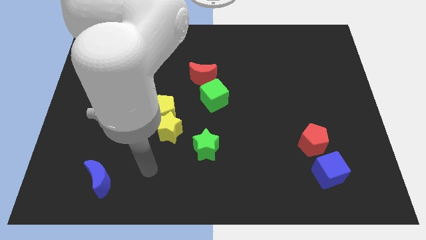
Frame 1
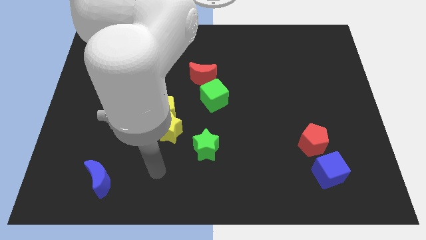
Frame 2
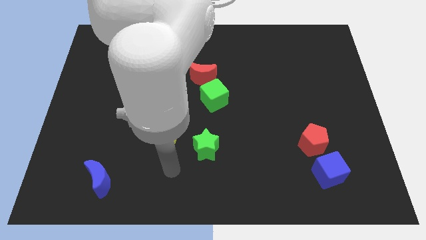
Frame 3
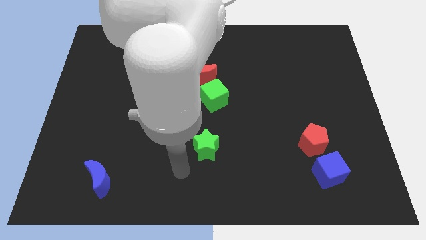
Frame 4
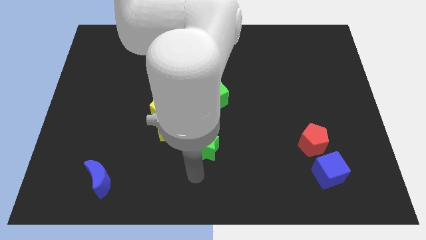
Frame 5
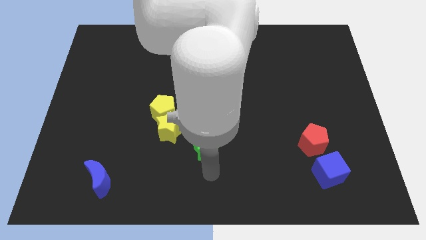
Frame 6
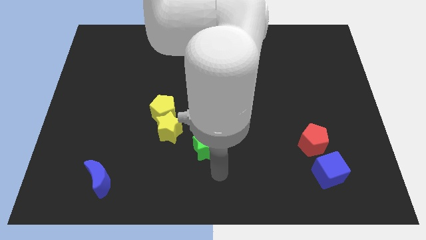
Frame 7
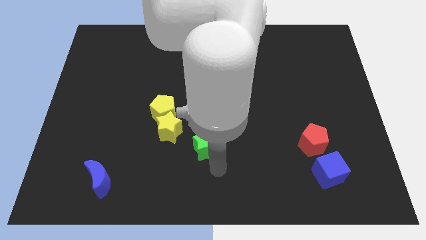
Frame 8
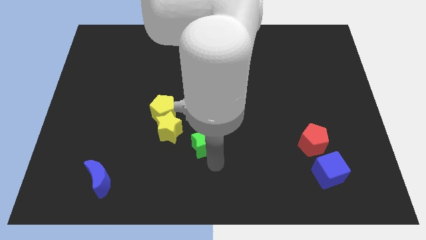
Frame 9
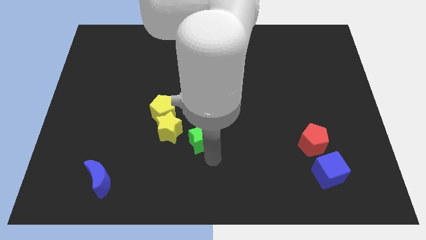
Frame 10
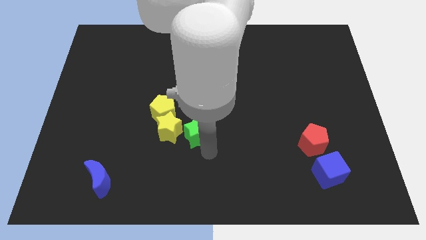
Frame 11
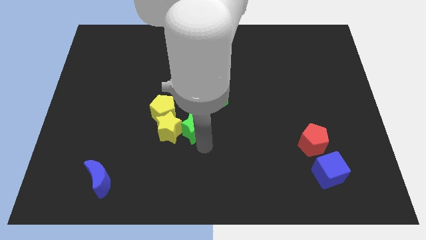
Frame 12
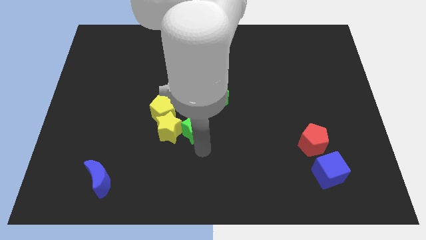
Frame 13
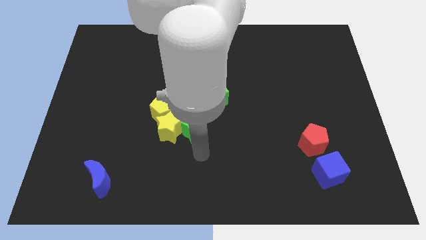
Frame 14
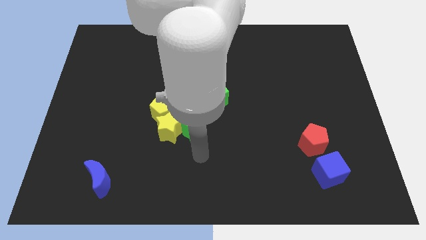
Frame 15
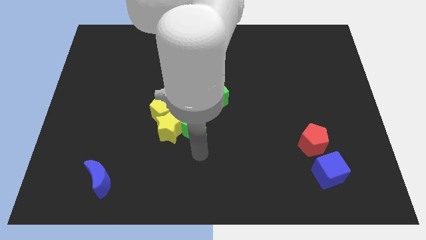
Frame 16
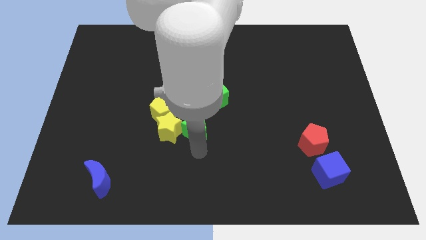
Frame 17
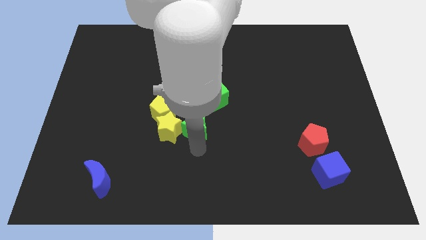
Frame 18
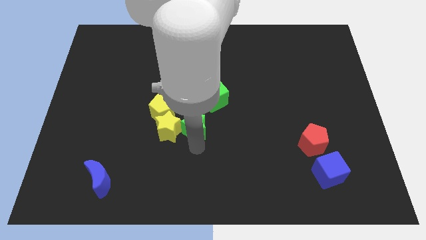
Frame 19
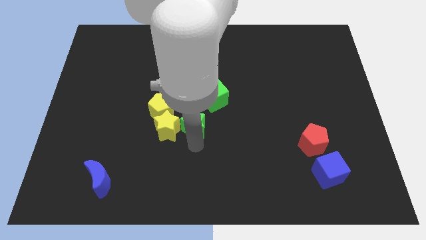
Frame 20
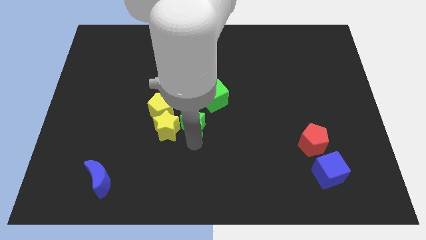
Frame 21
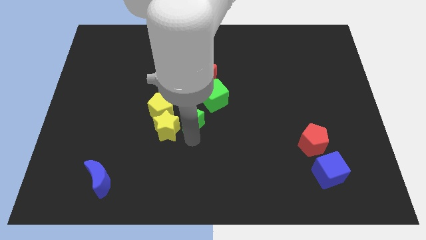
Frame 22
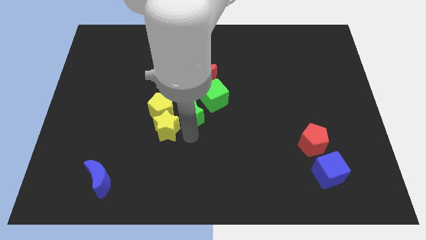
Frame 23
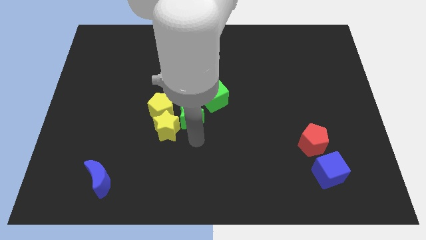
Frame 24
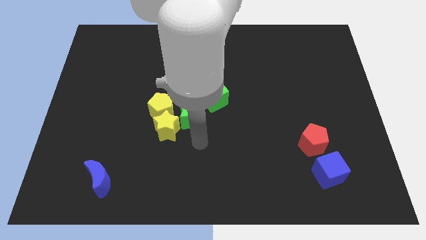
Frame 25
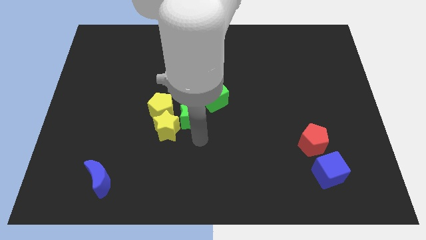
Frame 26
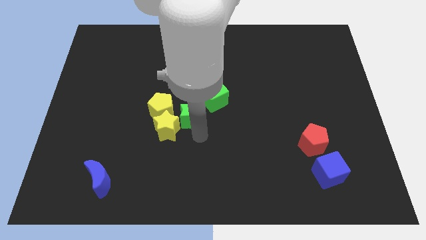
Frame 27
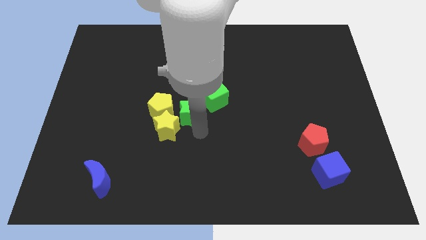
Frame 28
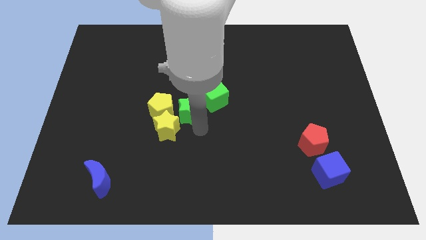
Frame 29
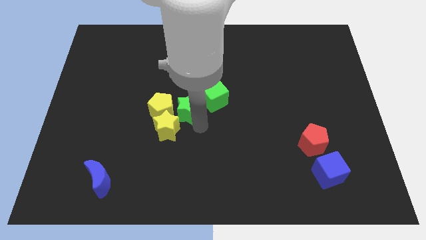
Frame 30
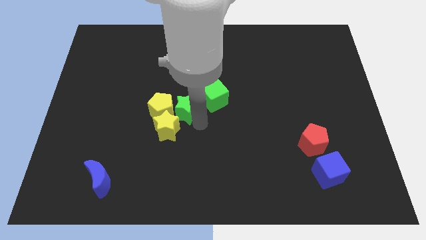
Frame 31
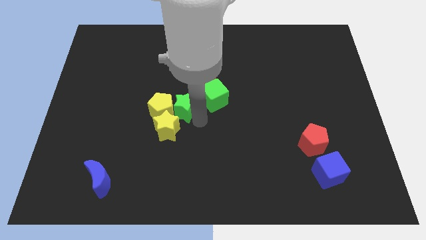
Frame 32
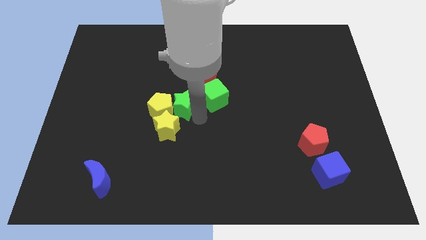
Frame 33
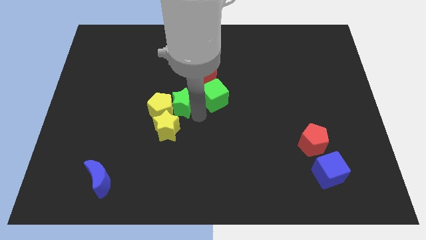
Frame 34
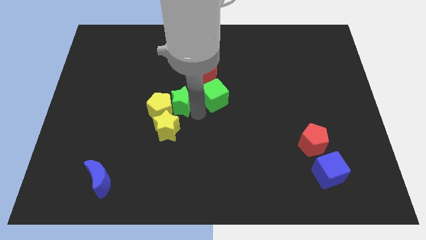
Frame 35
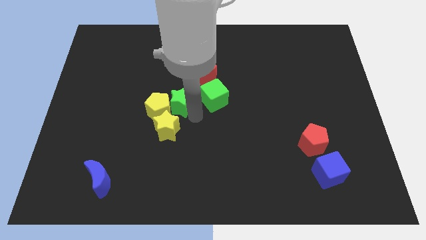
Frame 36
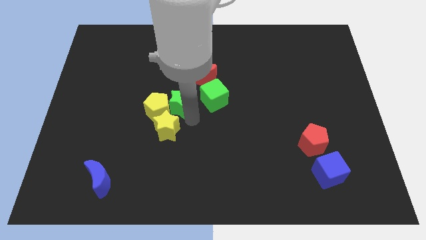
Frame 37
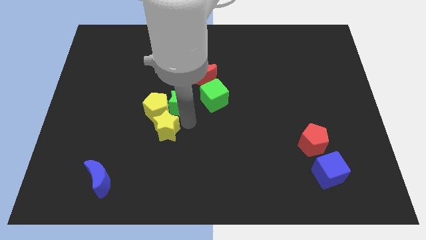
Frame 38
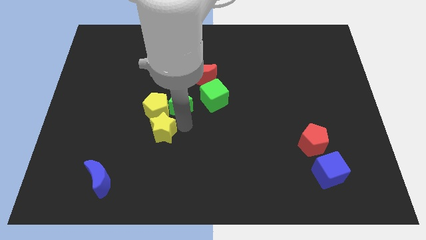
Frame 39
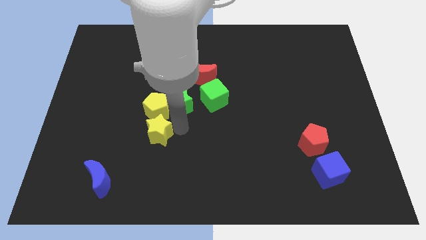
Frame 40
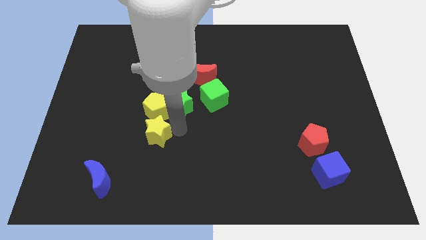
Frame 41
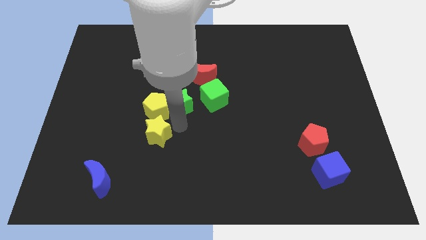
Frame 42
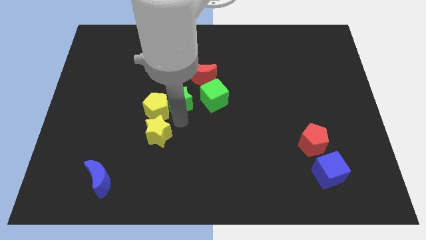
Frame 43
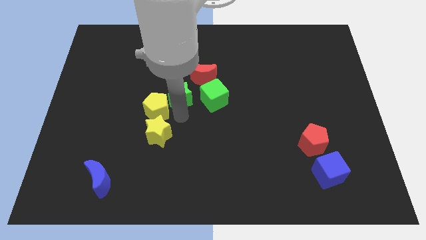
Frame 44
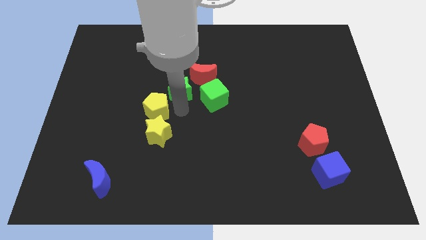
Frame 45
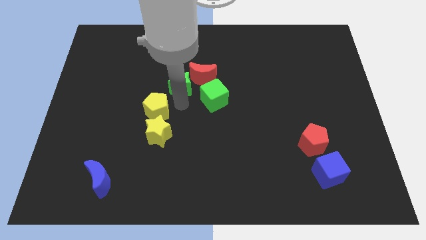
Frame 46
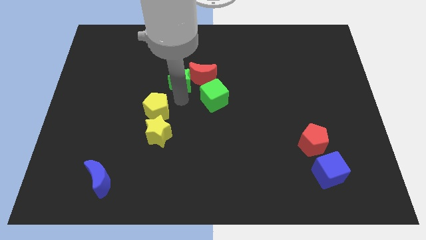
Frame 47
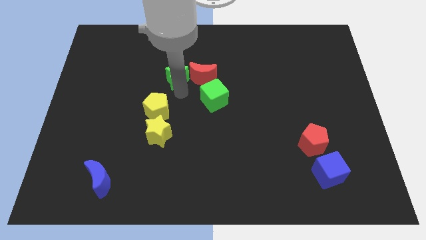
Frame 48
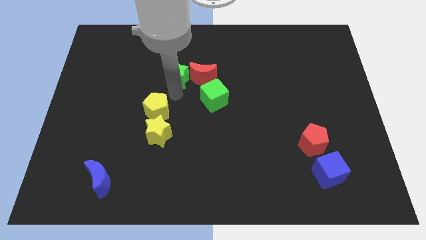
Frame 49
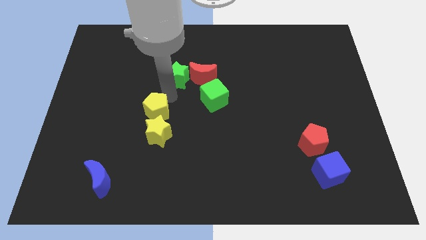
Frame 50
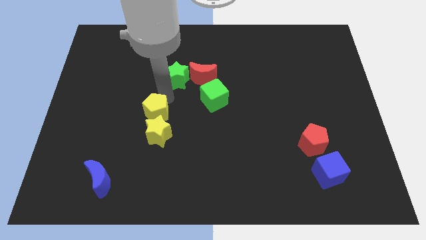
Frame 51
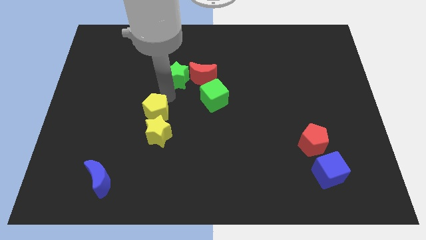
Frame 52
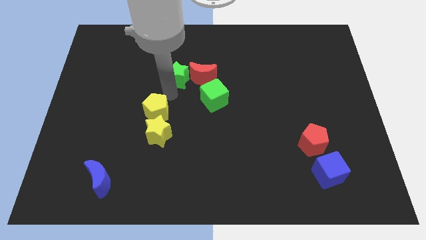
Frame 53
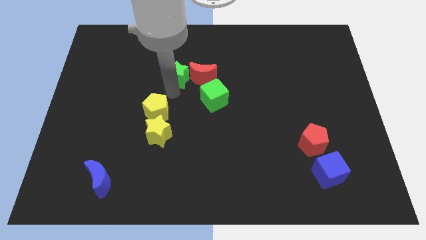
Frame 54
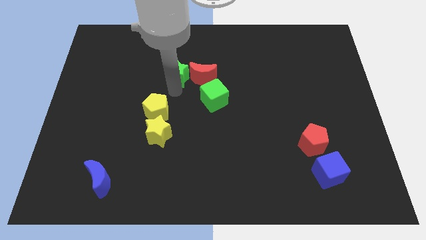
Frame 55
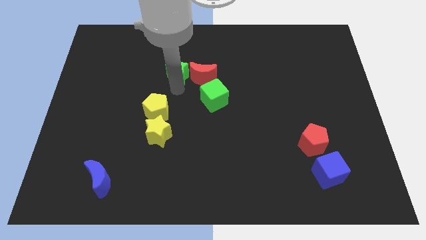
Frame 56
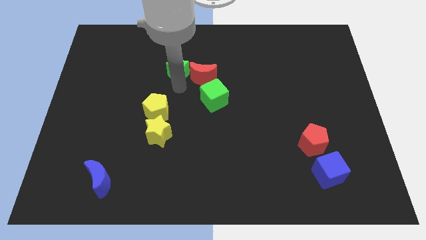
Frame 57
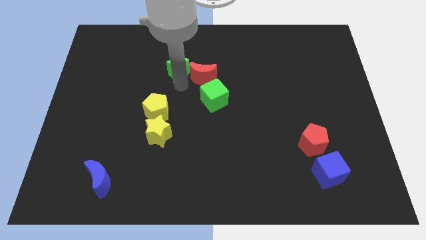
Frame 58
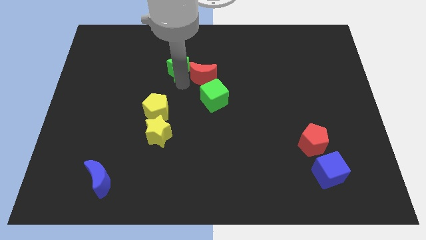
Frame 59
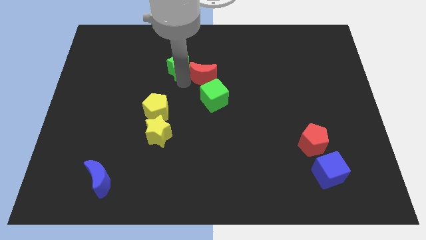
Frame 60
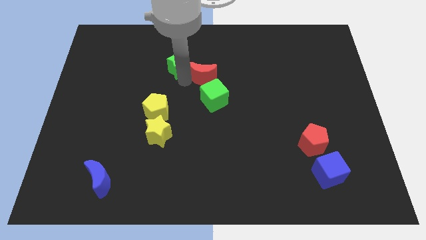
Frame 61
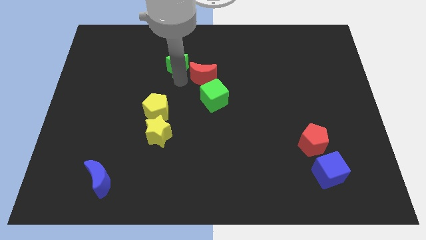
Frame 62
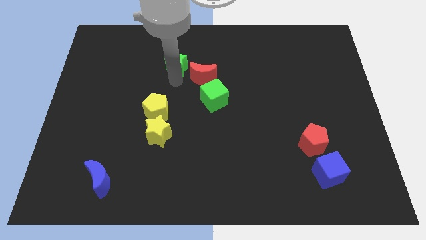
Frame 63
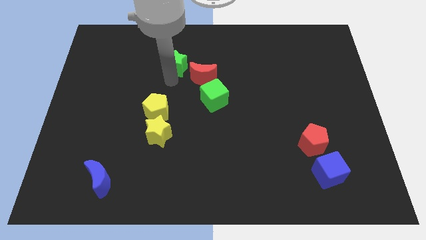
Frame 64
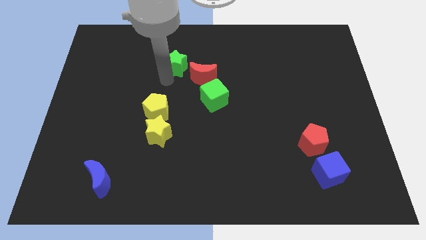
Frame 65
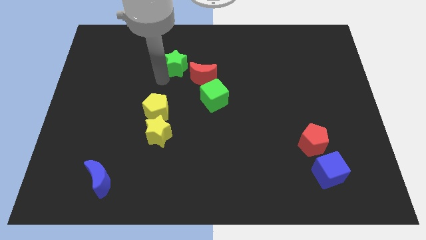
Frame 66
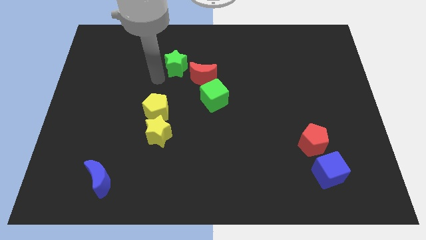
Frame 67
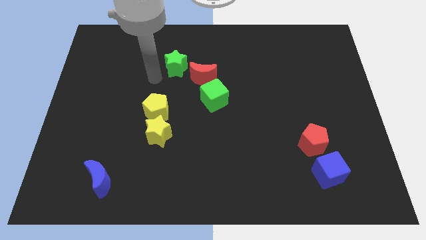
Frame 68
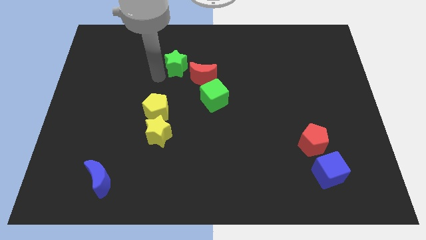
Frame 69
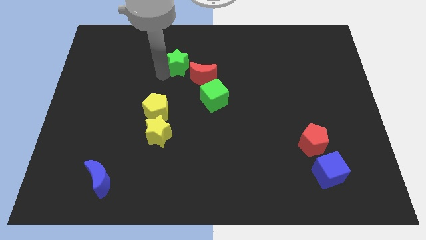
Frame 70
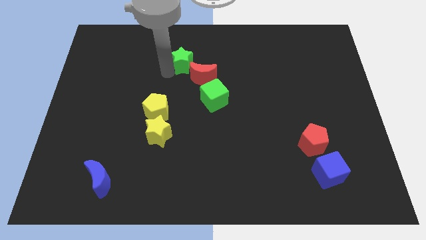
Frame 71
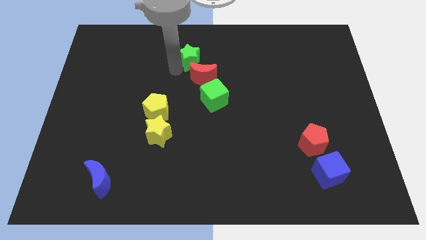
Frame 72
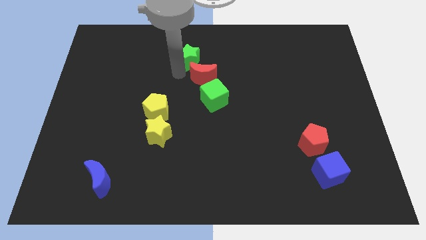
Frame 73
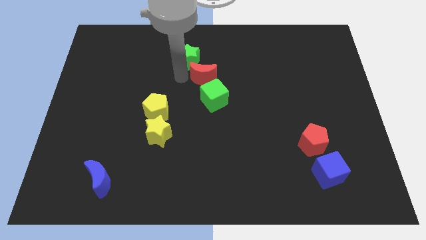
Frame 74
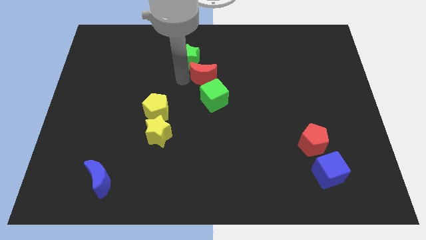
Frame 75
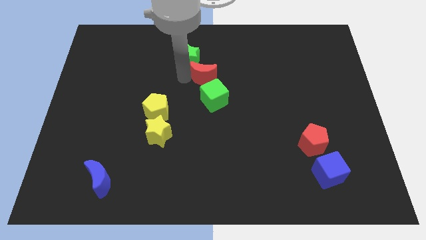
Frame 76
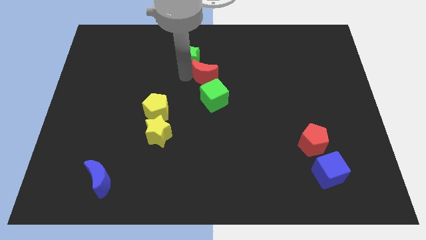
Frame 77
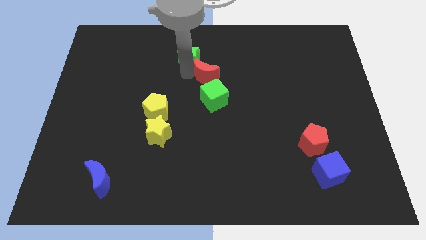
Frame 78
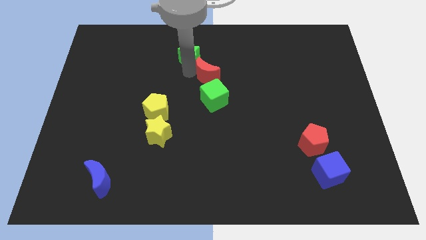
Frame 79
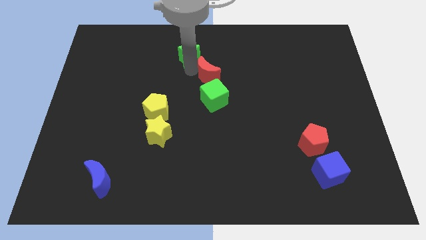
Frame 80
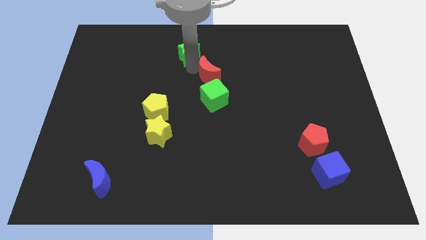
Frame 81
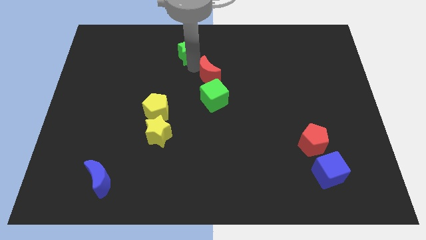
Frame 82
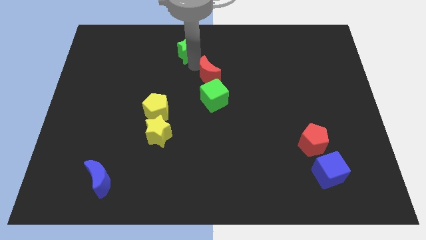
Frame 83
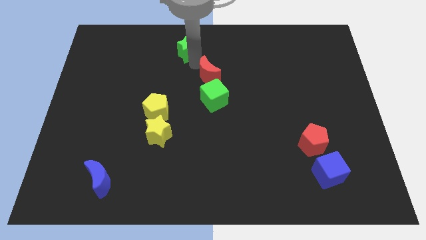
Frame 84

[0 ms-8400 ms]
move the green star to the top
